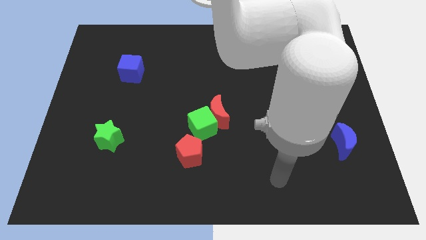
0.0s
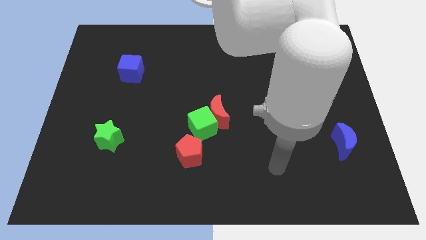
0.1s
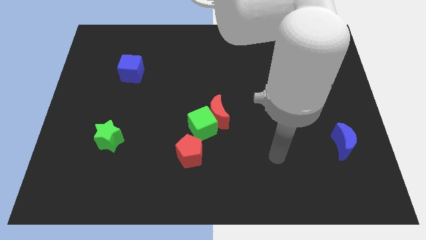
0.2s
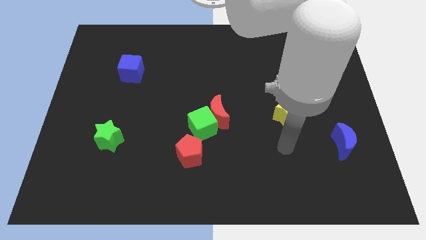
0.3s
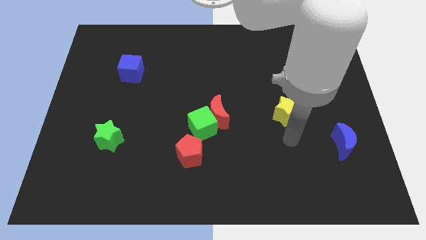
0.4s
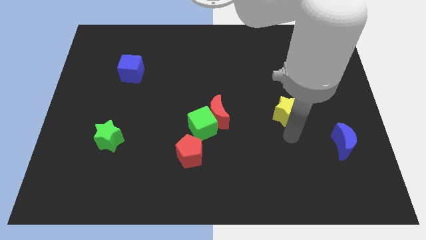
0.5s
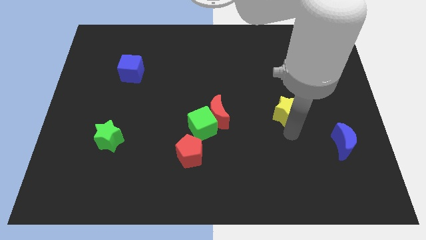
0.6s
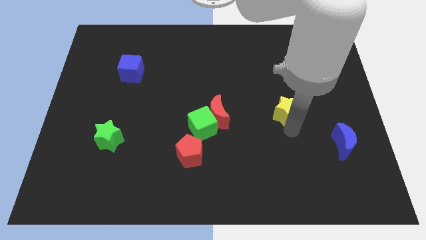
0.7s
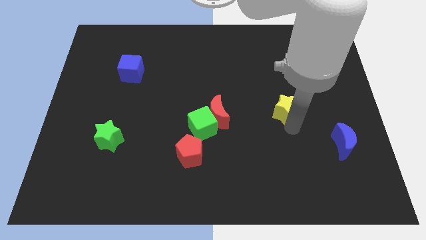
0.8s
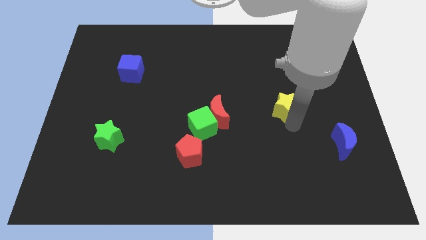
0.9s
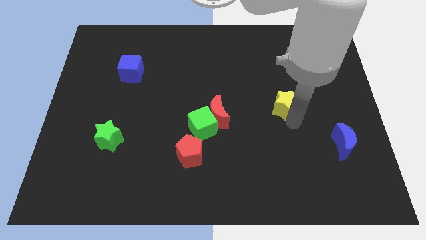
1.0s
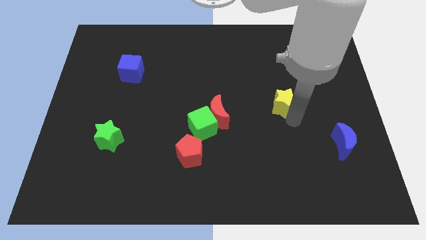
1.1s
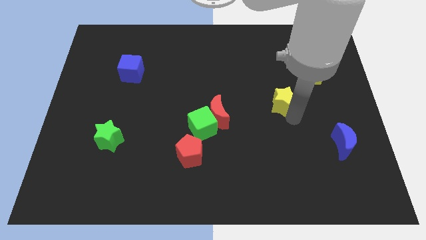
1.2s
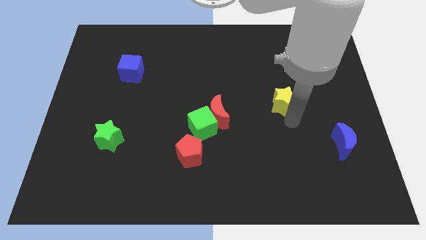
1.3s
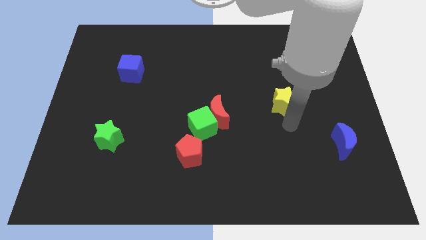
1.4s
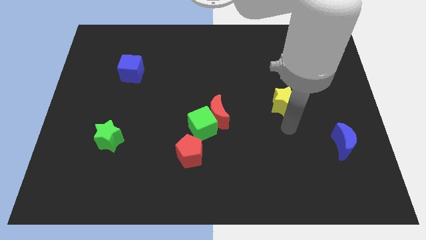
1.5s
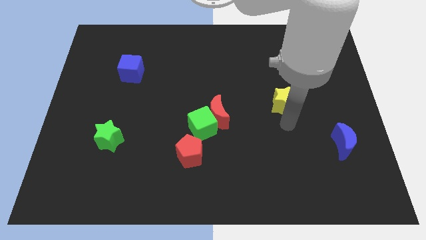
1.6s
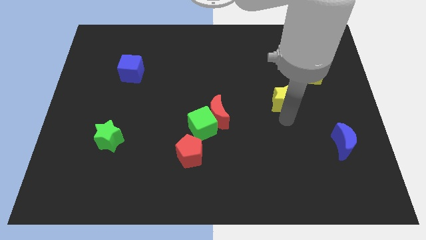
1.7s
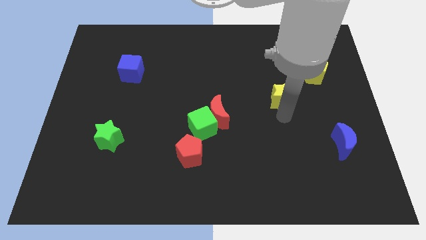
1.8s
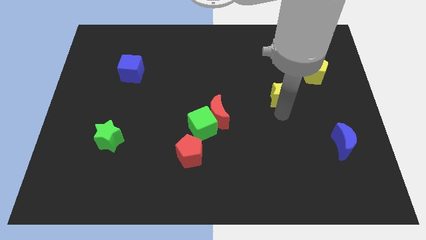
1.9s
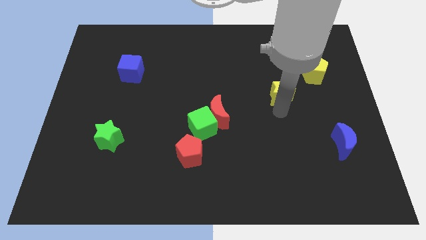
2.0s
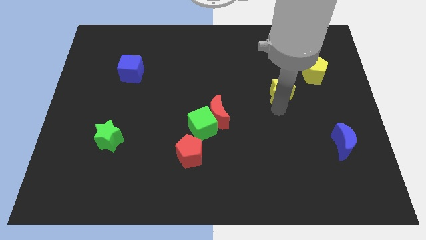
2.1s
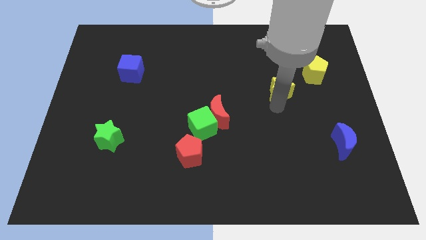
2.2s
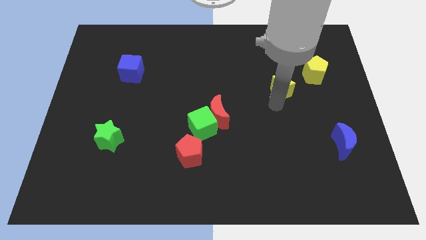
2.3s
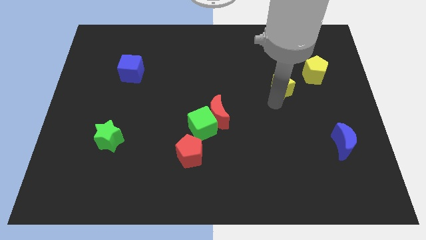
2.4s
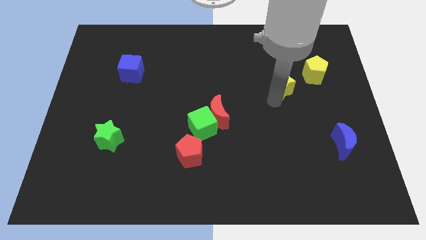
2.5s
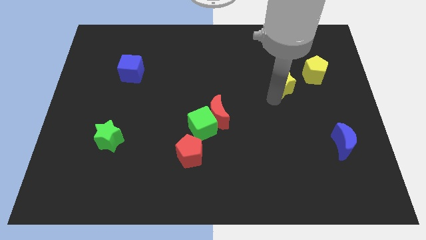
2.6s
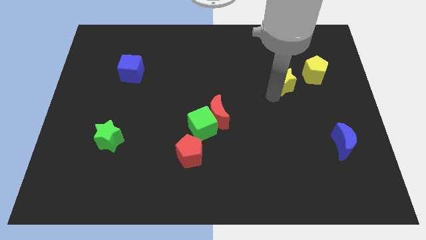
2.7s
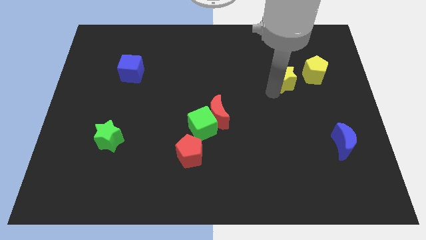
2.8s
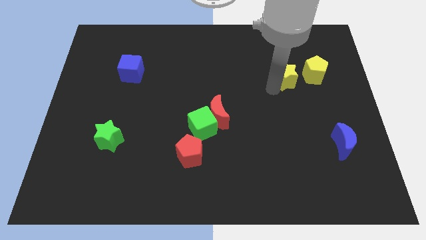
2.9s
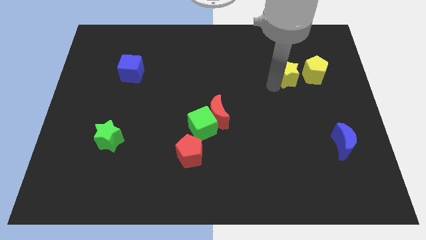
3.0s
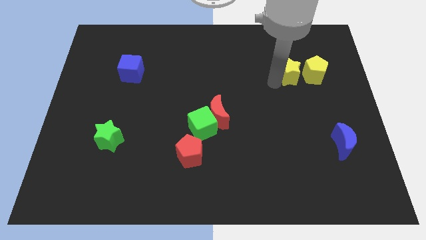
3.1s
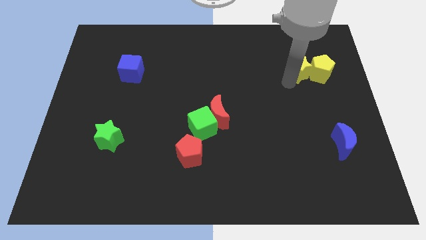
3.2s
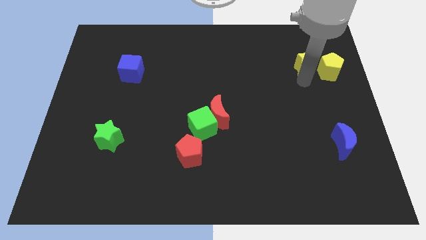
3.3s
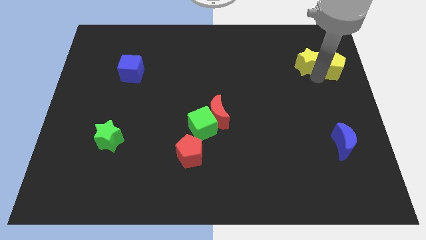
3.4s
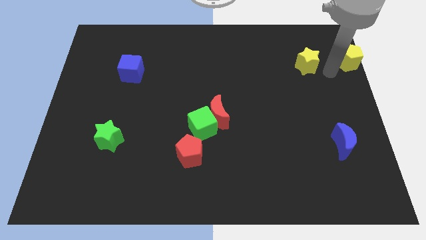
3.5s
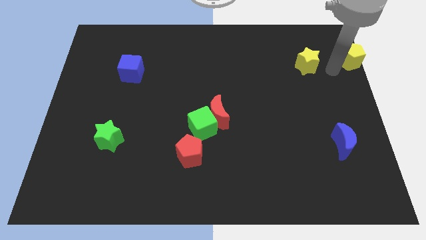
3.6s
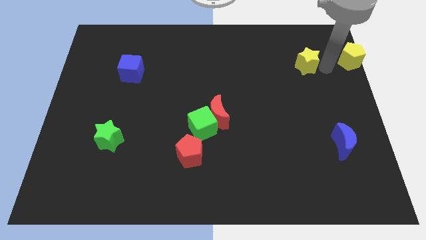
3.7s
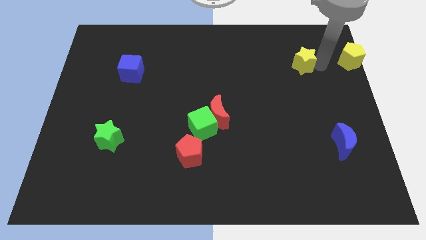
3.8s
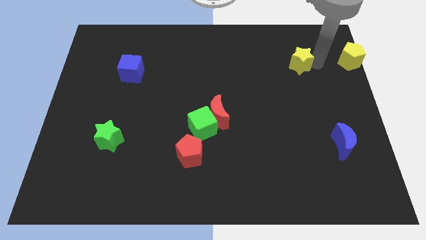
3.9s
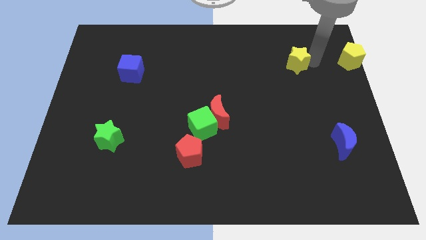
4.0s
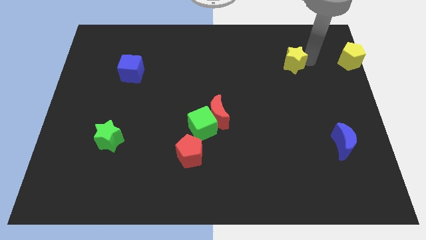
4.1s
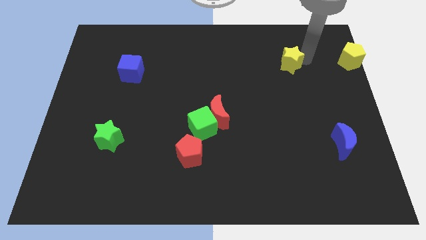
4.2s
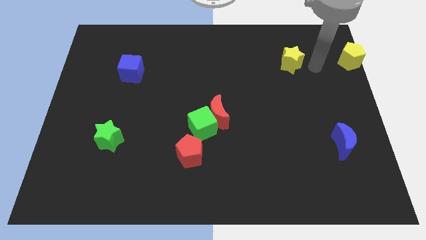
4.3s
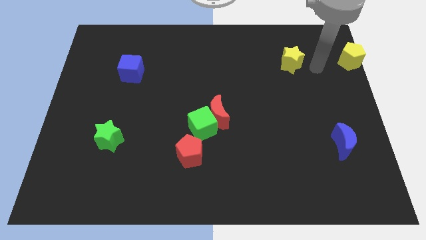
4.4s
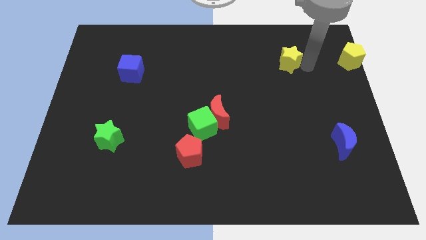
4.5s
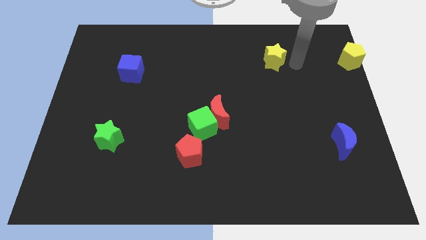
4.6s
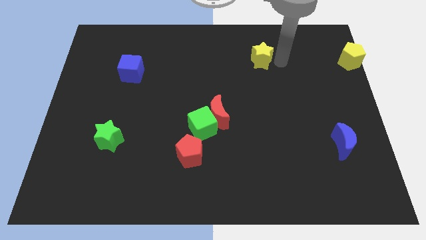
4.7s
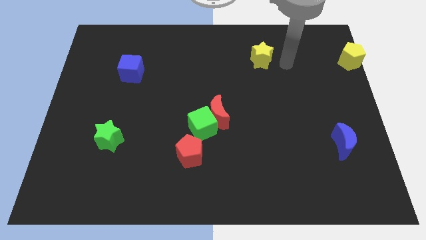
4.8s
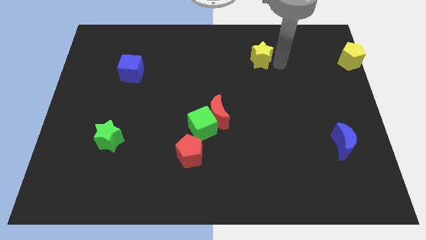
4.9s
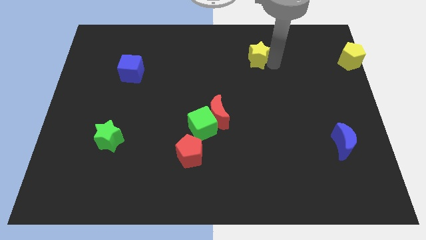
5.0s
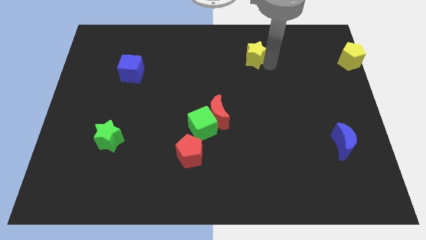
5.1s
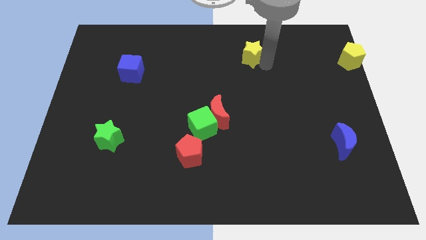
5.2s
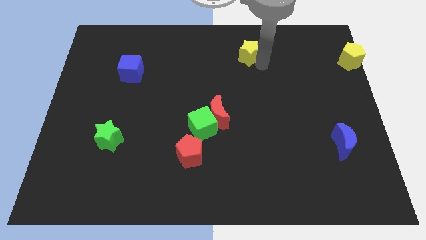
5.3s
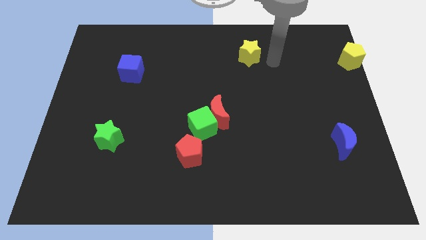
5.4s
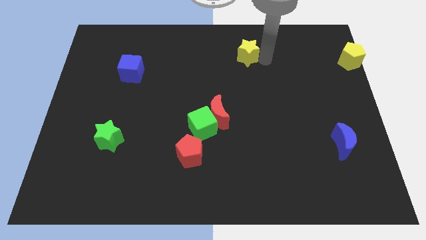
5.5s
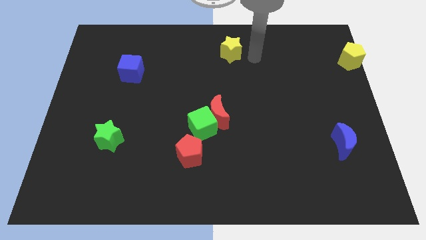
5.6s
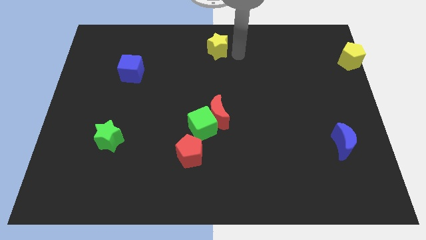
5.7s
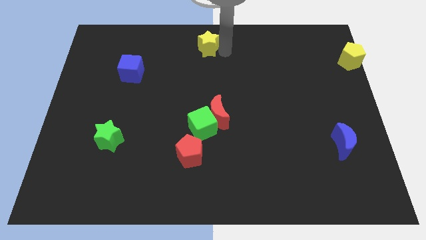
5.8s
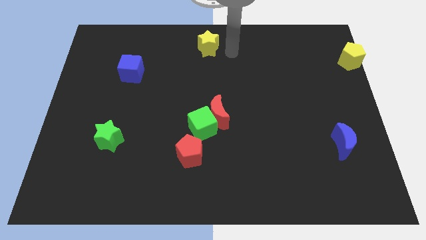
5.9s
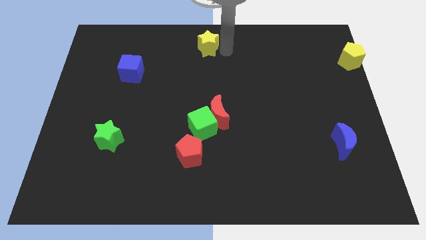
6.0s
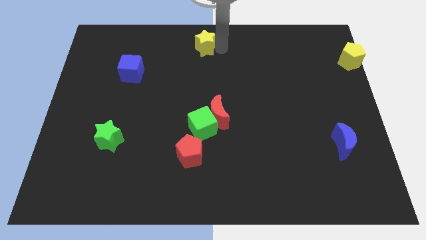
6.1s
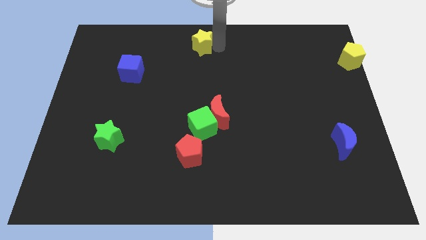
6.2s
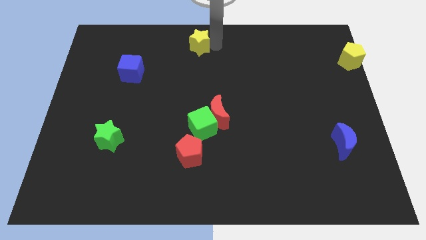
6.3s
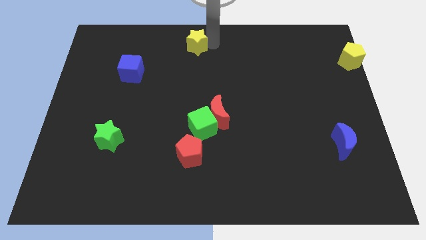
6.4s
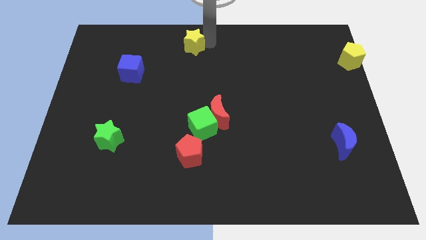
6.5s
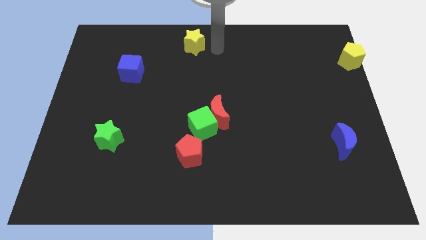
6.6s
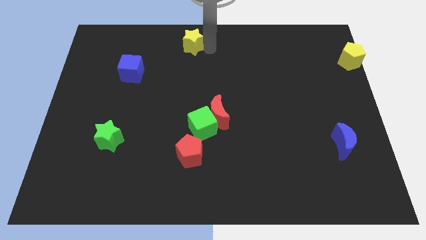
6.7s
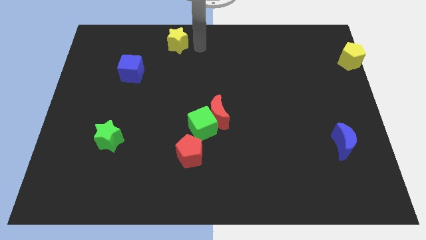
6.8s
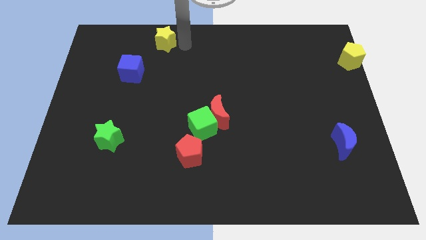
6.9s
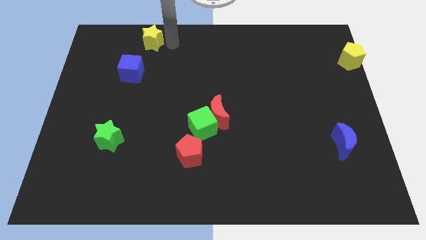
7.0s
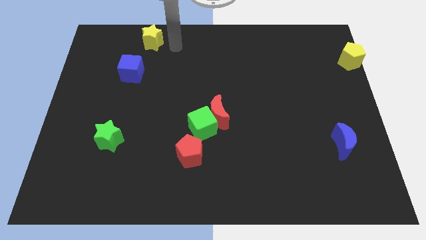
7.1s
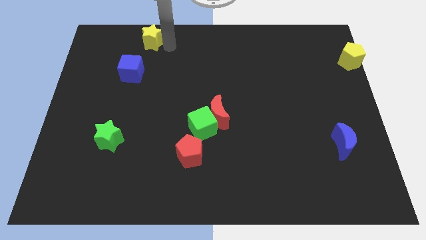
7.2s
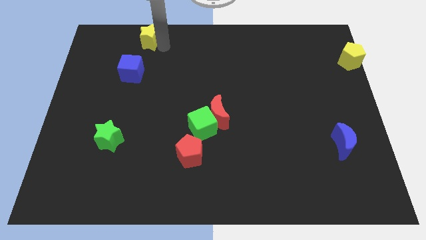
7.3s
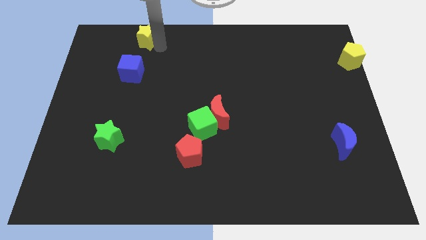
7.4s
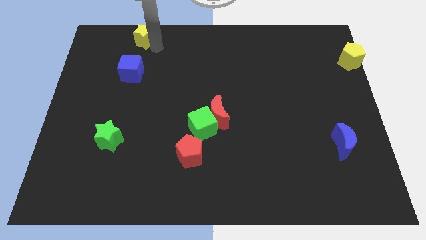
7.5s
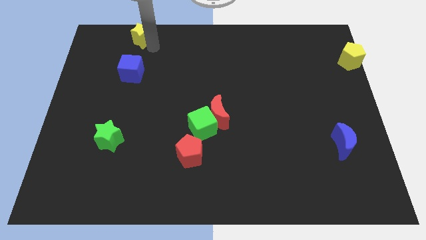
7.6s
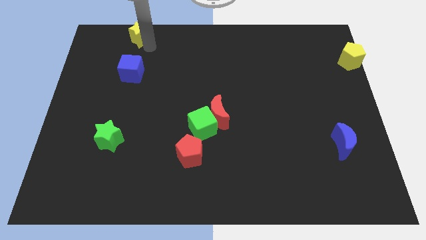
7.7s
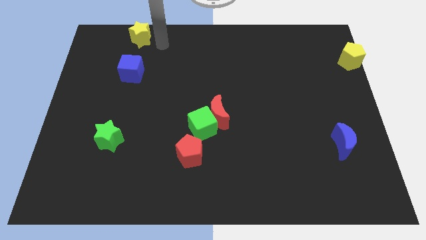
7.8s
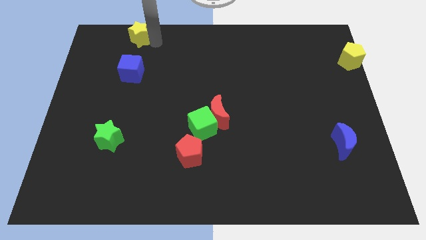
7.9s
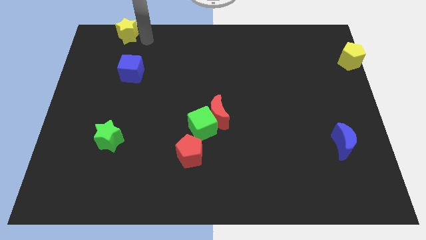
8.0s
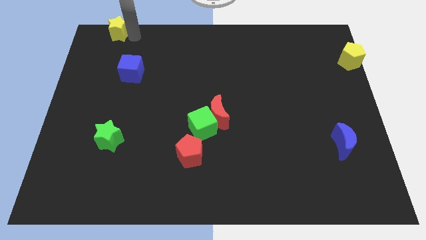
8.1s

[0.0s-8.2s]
push the yellow star to the top left corner
